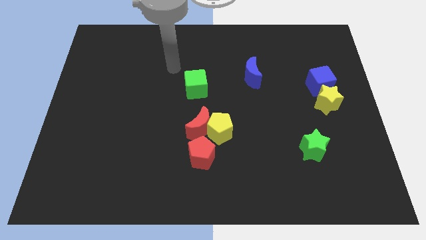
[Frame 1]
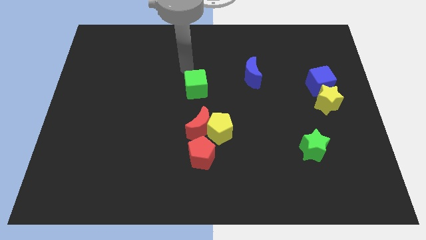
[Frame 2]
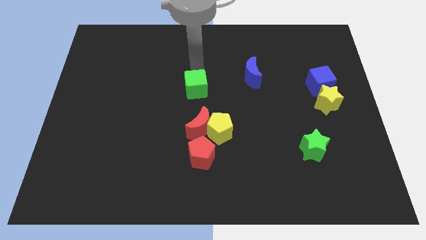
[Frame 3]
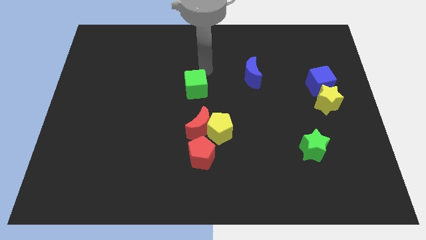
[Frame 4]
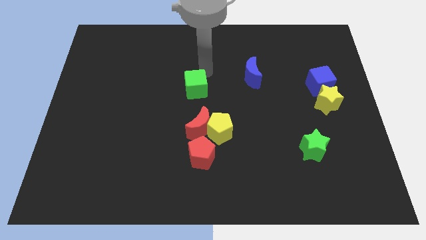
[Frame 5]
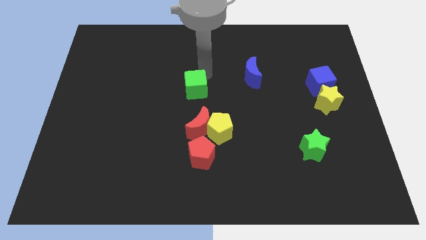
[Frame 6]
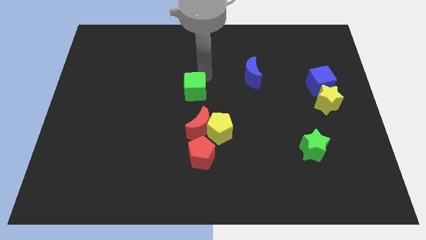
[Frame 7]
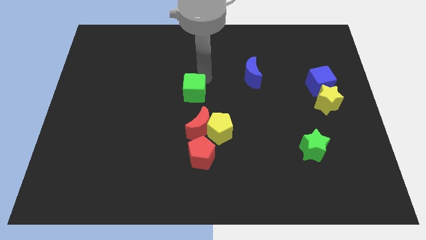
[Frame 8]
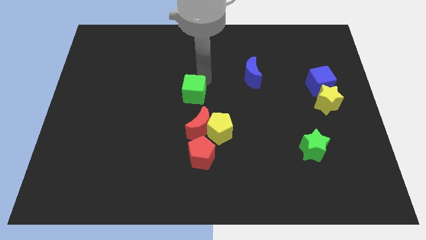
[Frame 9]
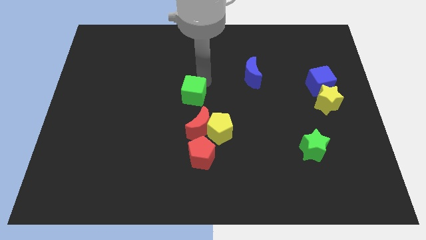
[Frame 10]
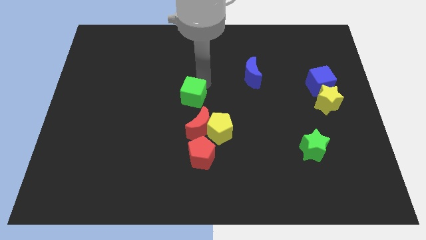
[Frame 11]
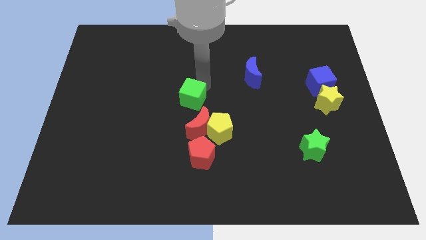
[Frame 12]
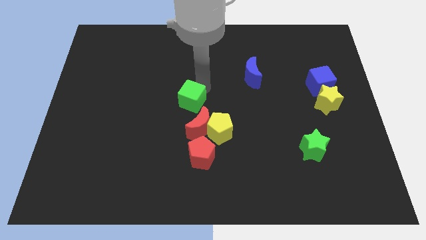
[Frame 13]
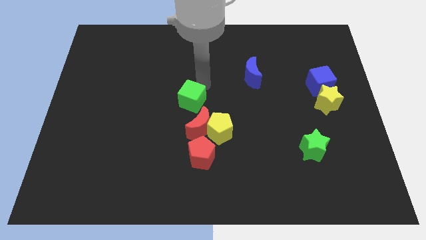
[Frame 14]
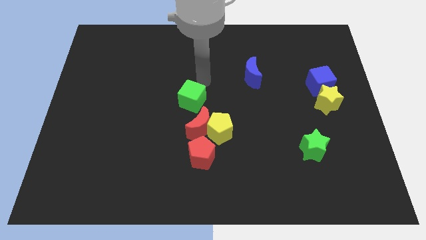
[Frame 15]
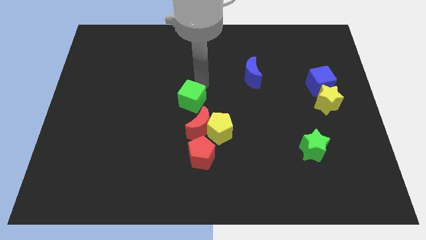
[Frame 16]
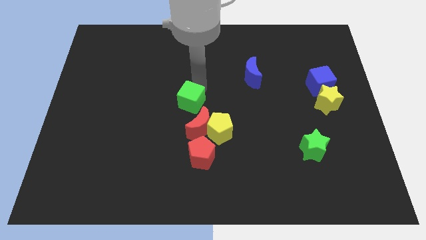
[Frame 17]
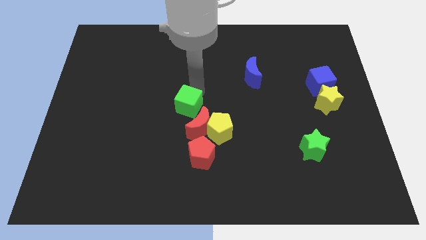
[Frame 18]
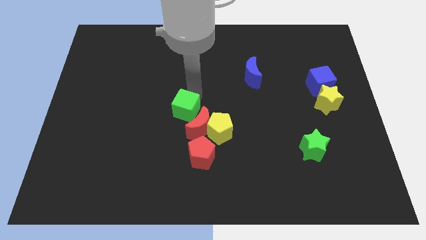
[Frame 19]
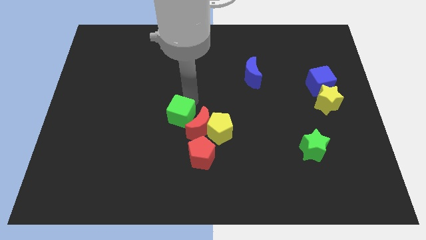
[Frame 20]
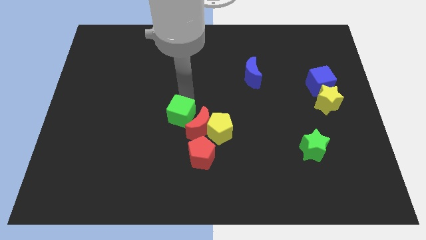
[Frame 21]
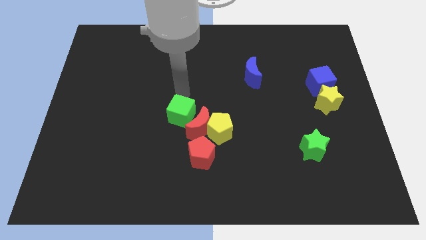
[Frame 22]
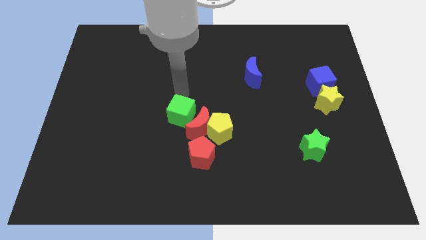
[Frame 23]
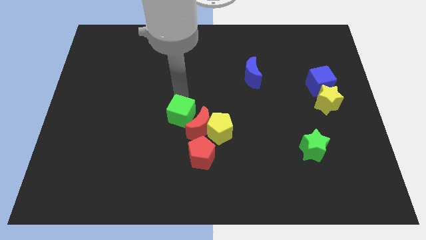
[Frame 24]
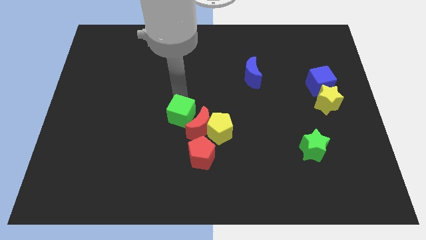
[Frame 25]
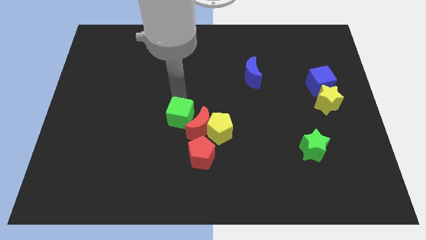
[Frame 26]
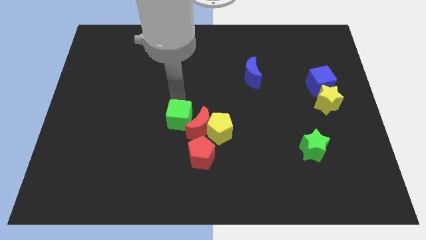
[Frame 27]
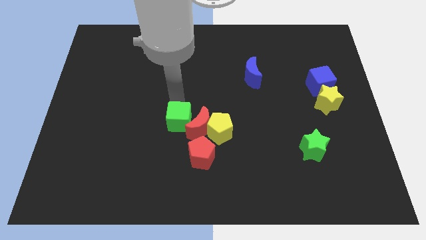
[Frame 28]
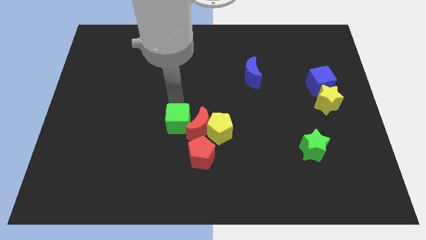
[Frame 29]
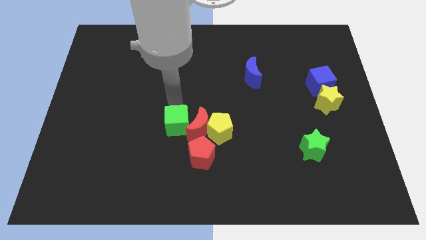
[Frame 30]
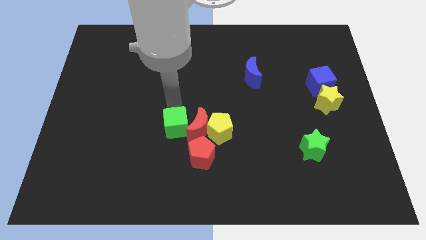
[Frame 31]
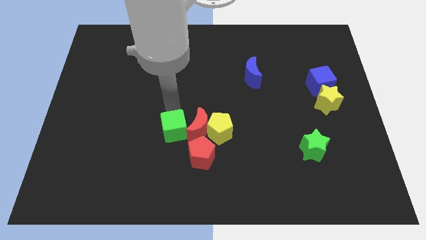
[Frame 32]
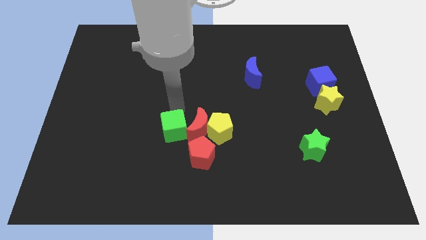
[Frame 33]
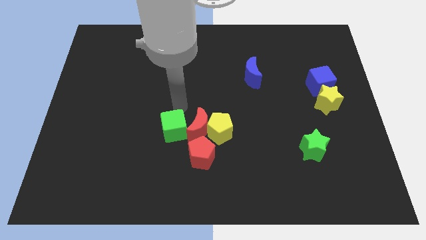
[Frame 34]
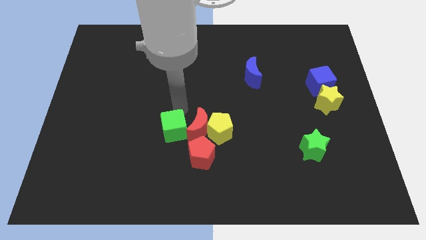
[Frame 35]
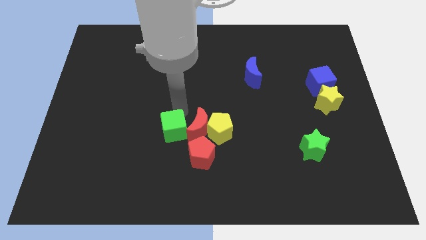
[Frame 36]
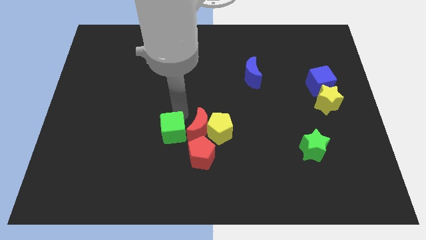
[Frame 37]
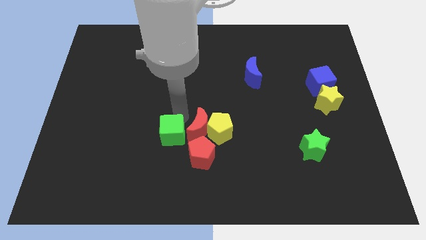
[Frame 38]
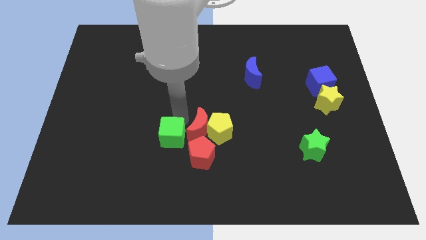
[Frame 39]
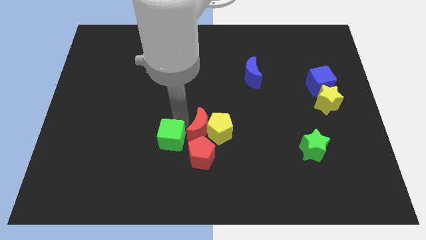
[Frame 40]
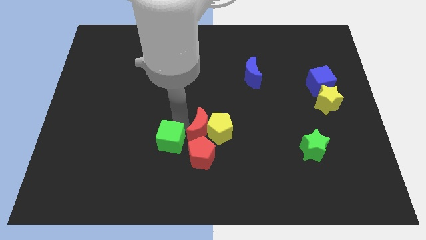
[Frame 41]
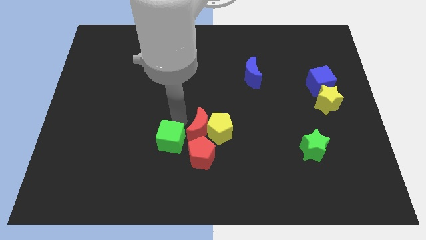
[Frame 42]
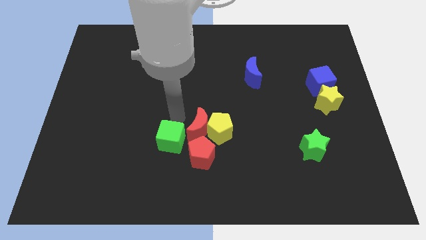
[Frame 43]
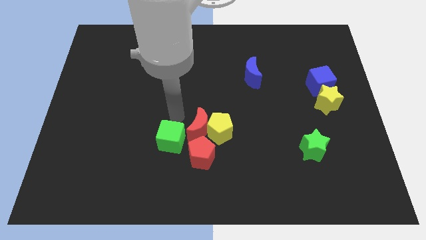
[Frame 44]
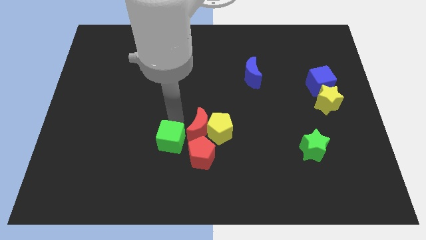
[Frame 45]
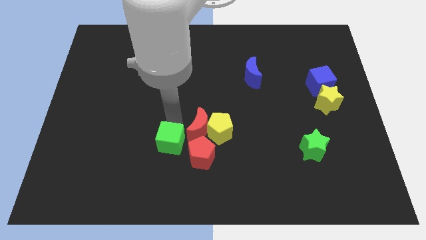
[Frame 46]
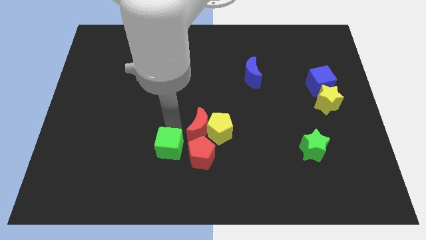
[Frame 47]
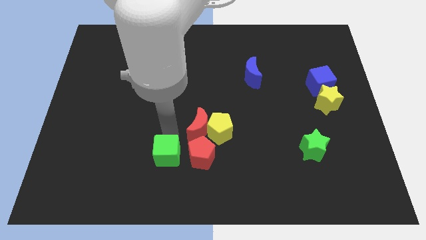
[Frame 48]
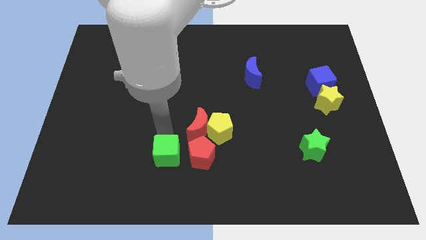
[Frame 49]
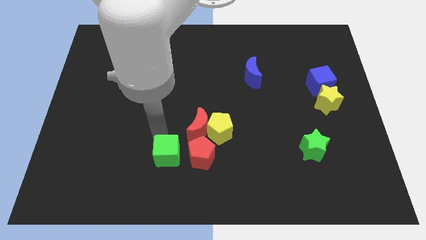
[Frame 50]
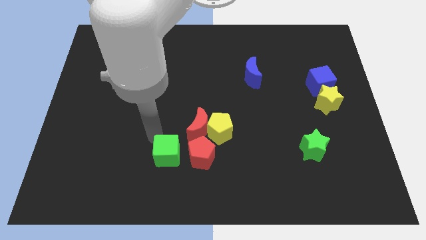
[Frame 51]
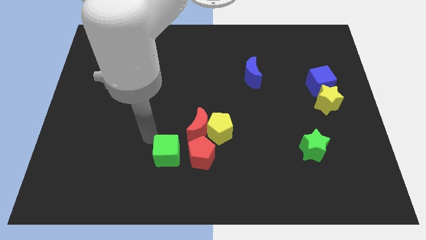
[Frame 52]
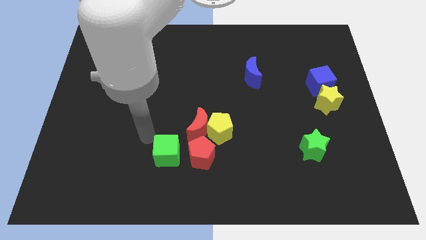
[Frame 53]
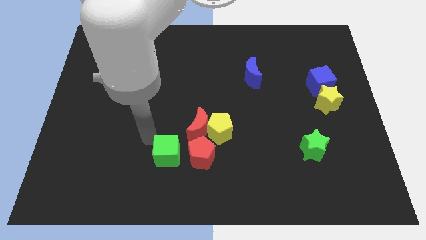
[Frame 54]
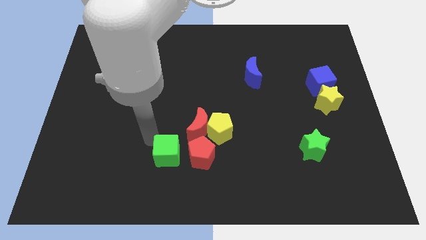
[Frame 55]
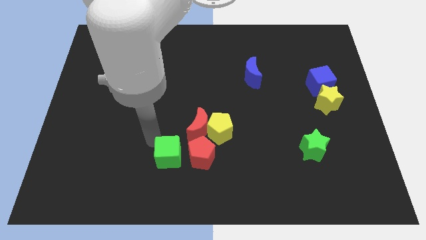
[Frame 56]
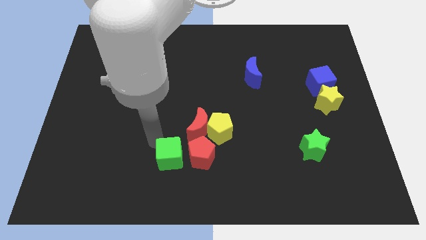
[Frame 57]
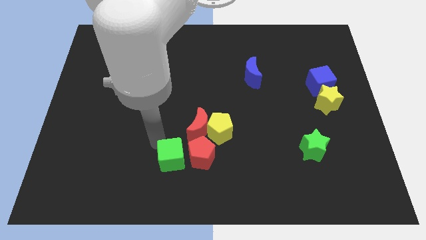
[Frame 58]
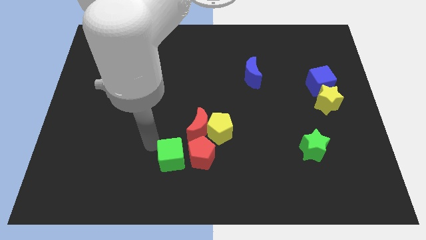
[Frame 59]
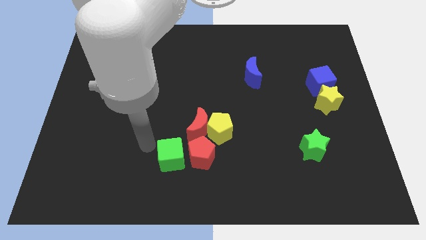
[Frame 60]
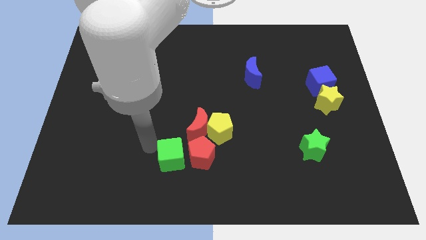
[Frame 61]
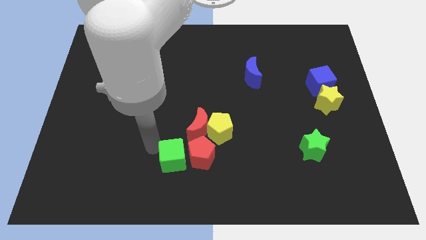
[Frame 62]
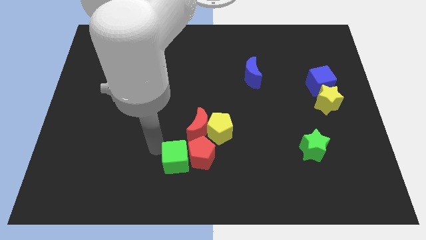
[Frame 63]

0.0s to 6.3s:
slide the green cube to the bottom of the red moon

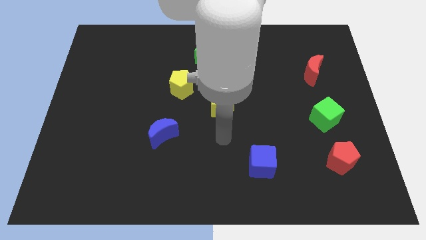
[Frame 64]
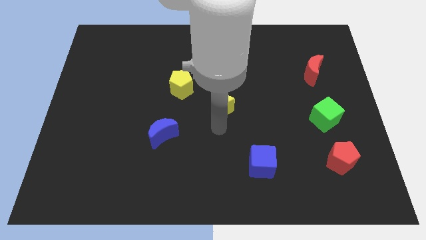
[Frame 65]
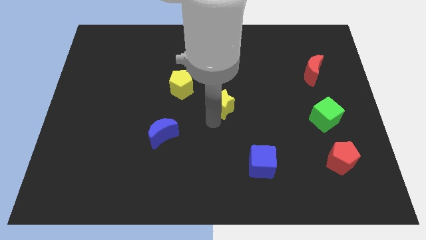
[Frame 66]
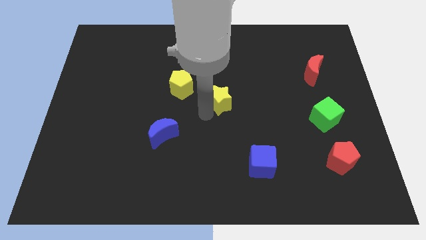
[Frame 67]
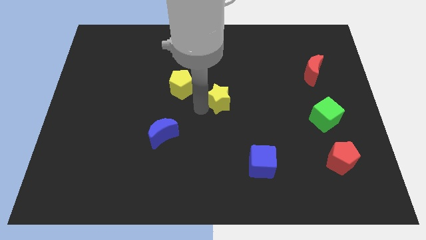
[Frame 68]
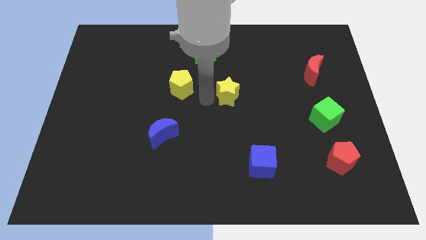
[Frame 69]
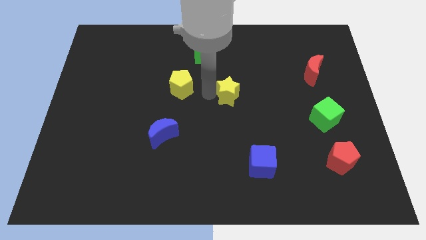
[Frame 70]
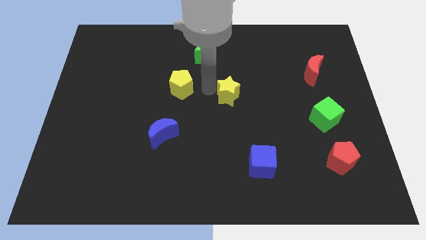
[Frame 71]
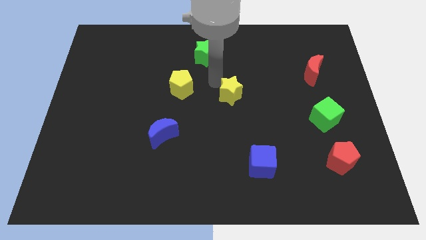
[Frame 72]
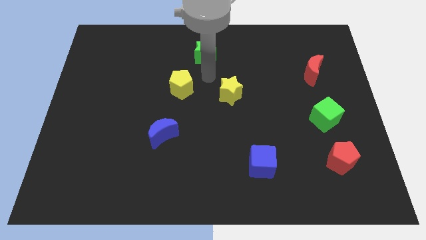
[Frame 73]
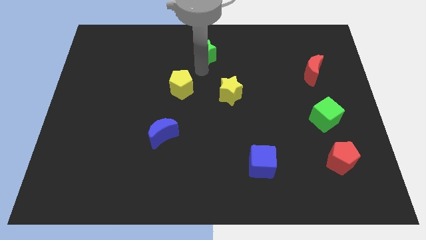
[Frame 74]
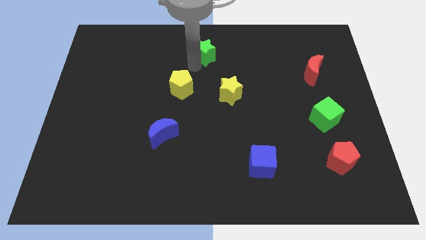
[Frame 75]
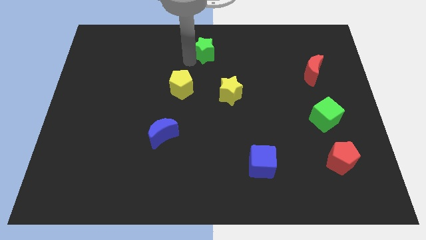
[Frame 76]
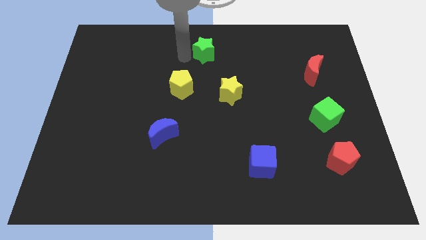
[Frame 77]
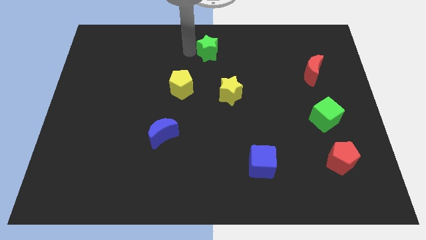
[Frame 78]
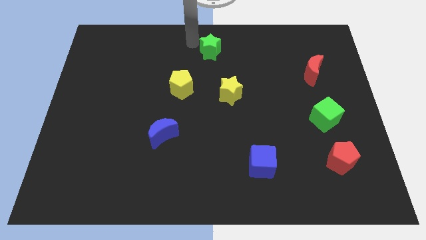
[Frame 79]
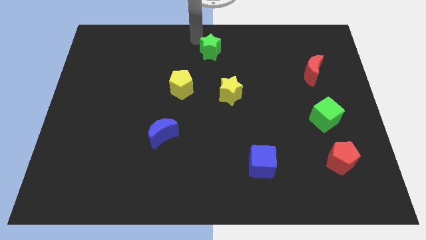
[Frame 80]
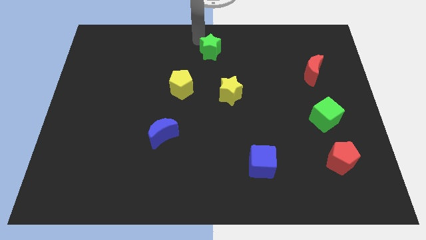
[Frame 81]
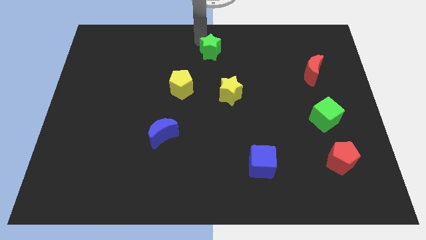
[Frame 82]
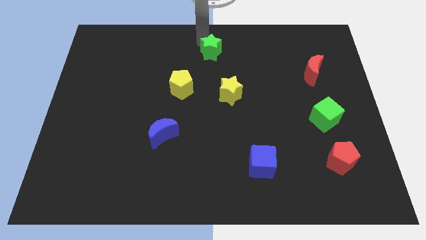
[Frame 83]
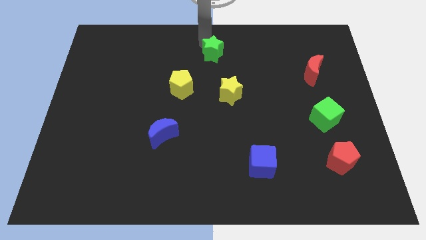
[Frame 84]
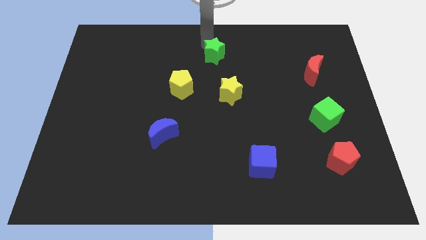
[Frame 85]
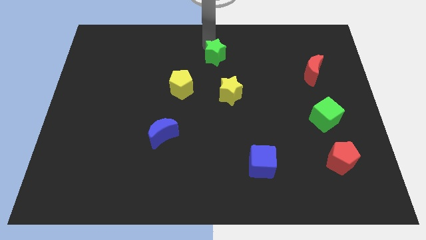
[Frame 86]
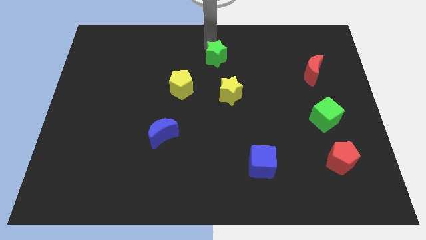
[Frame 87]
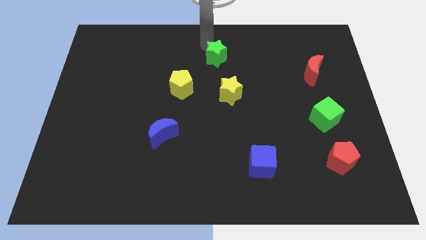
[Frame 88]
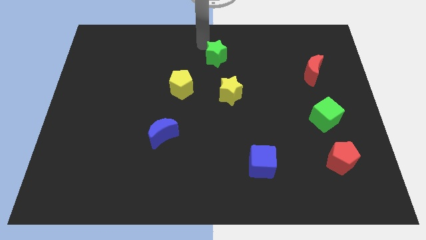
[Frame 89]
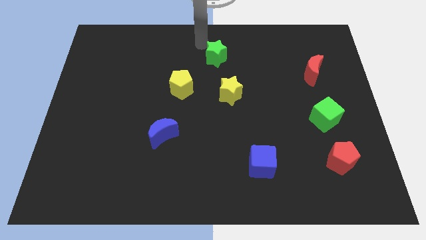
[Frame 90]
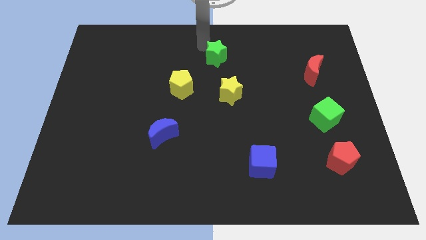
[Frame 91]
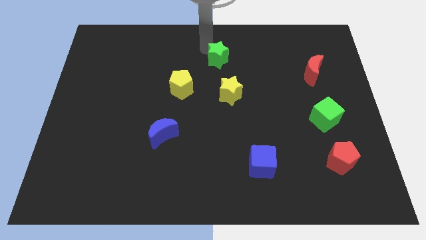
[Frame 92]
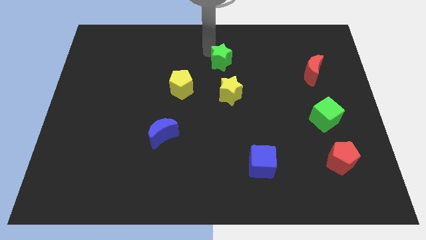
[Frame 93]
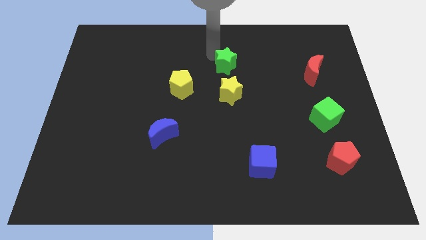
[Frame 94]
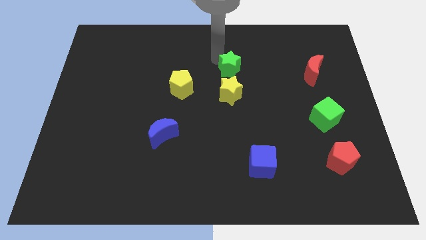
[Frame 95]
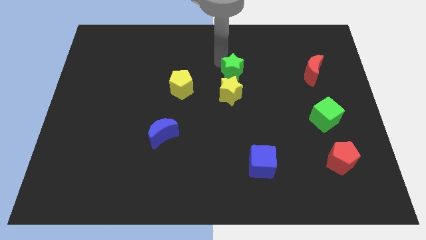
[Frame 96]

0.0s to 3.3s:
move the green star to the top right of the yellow star
